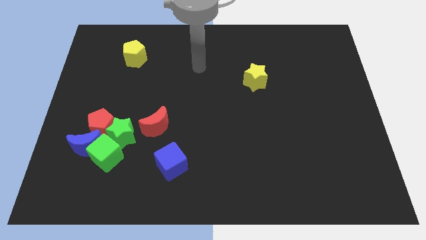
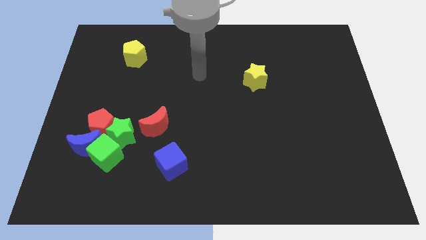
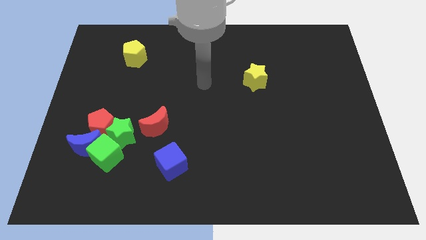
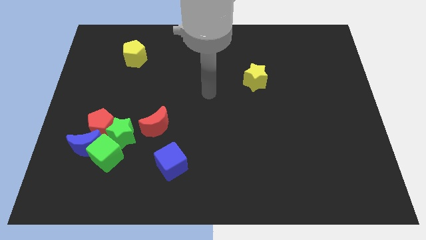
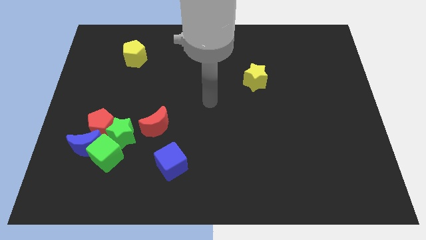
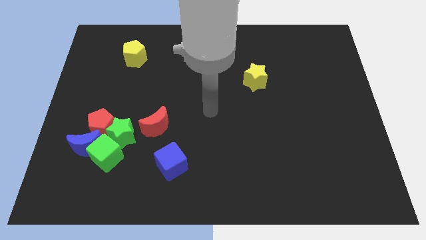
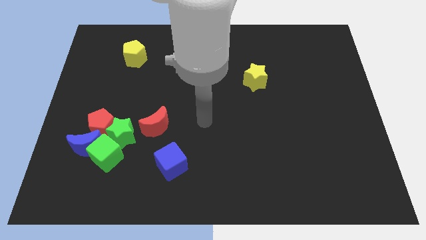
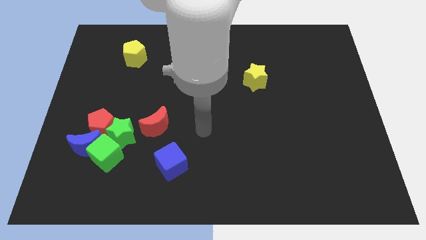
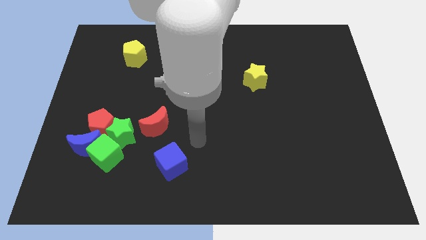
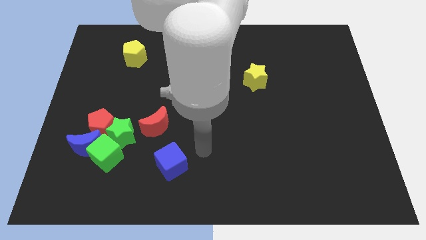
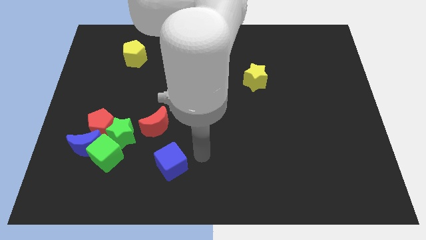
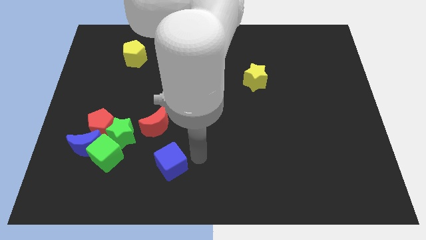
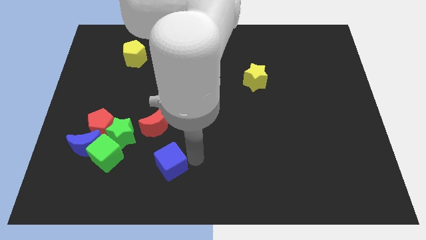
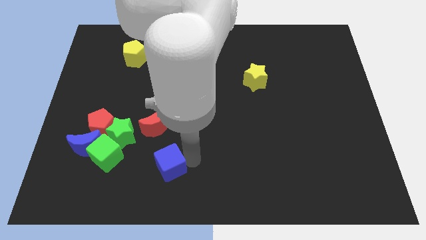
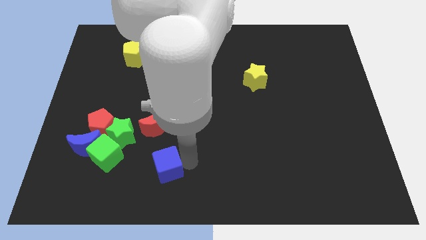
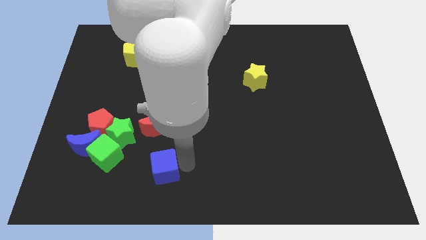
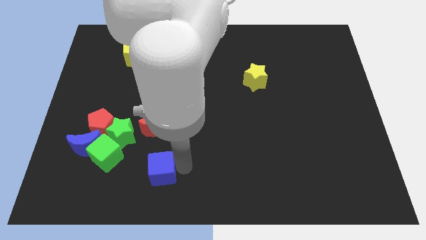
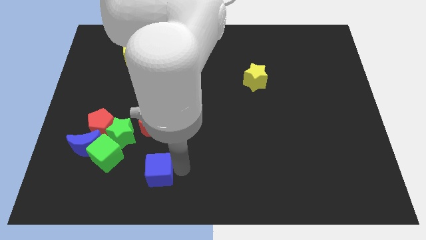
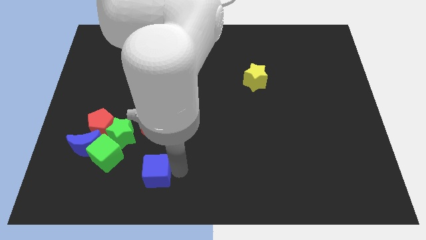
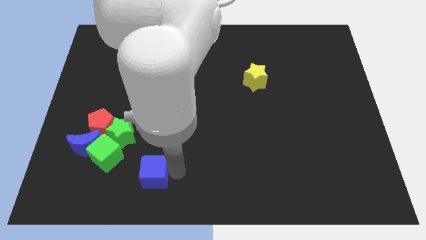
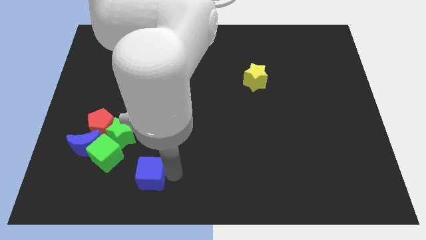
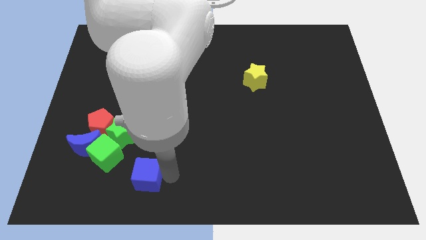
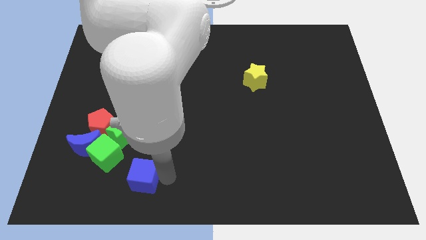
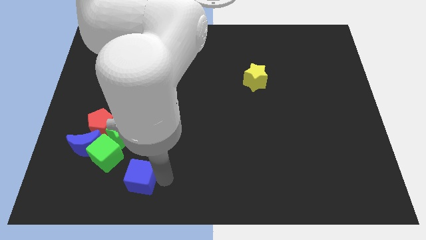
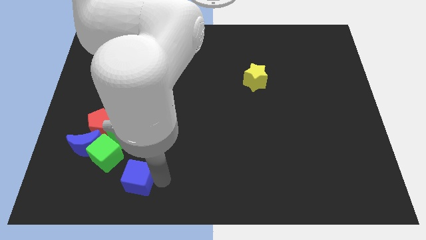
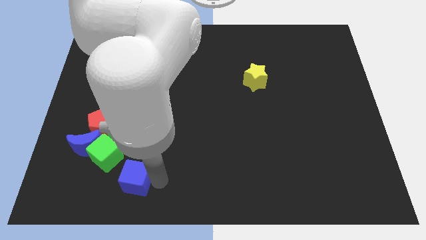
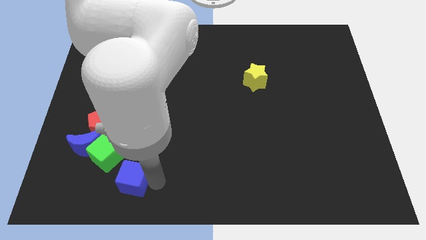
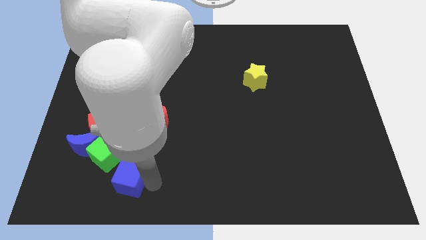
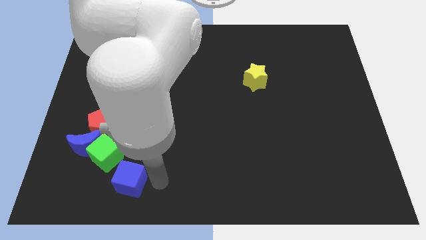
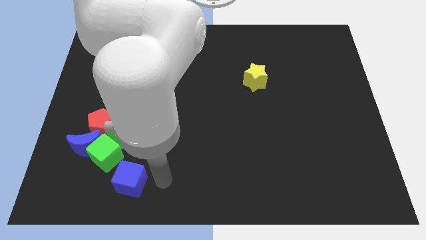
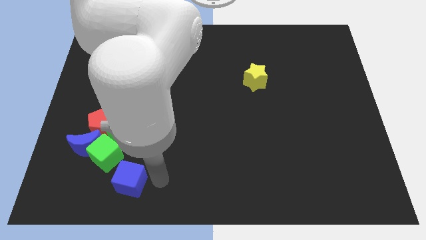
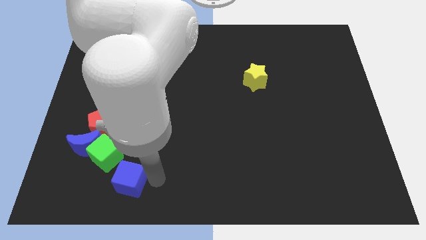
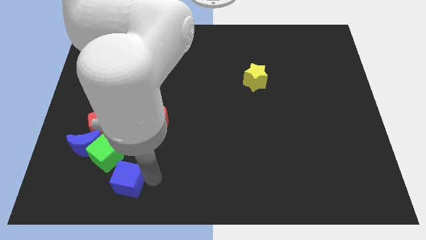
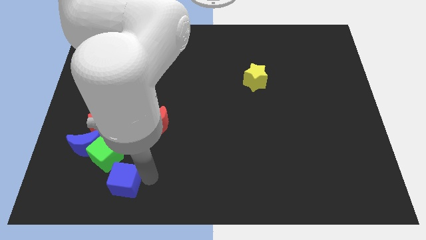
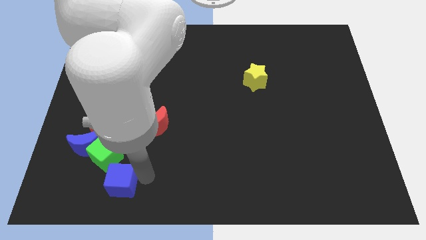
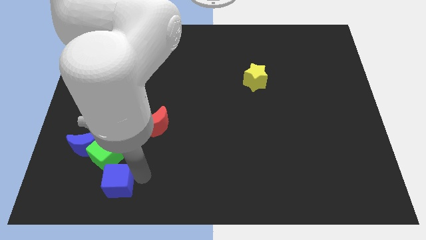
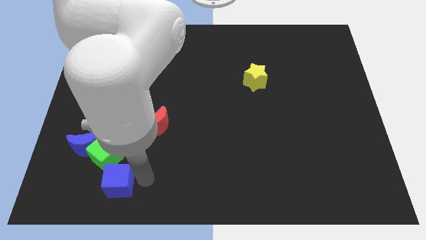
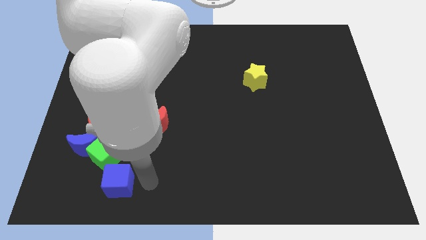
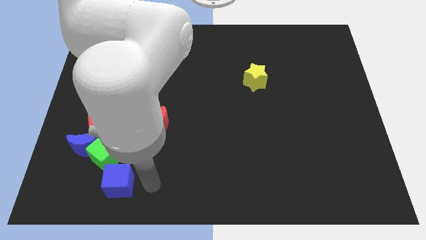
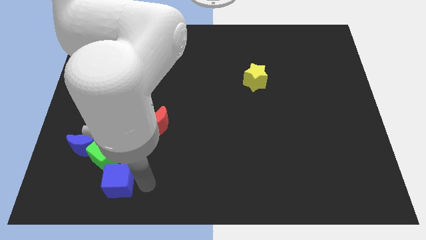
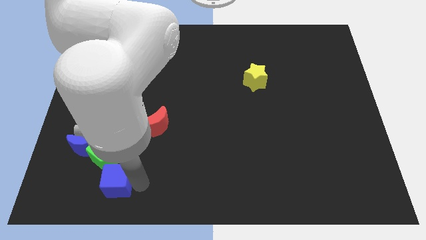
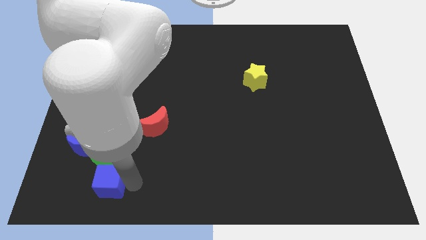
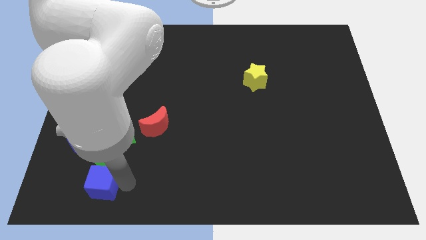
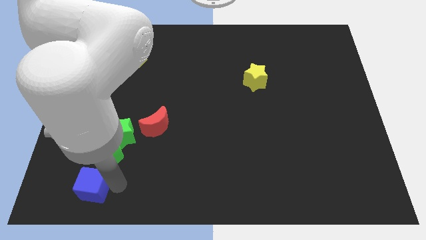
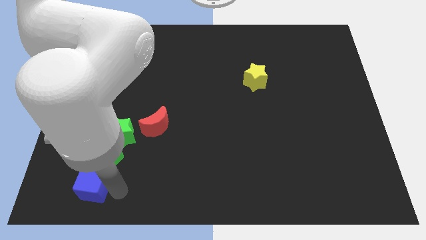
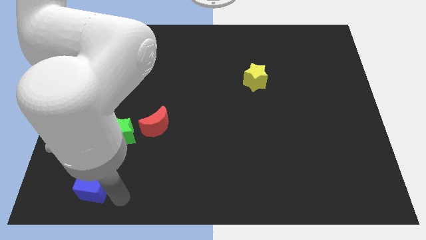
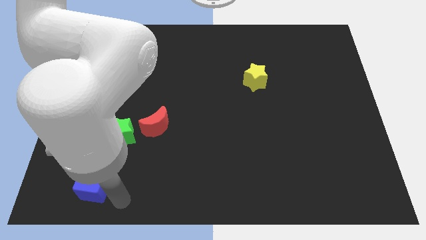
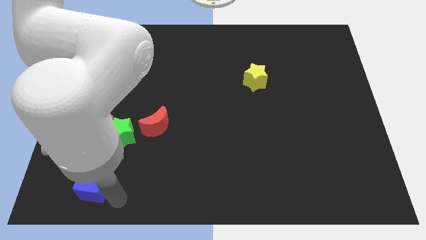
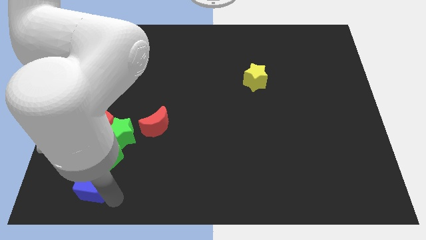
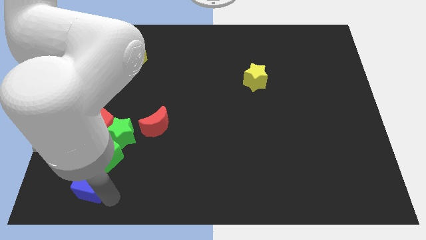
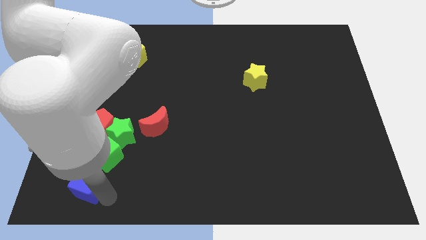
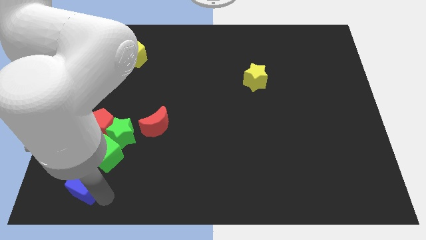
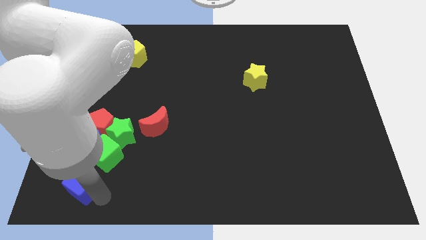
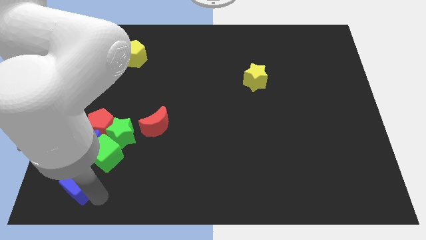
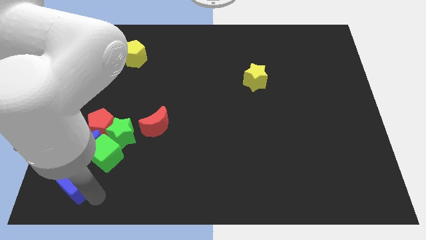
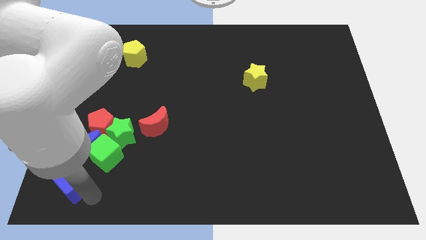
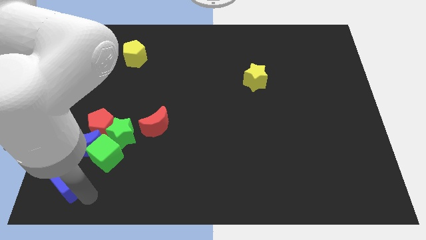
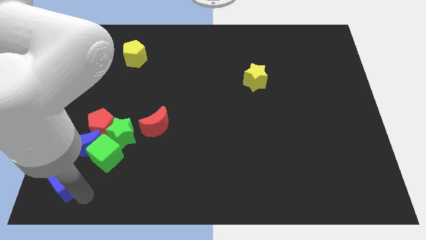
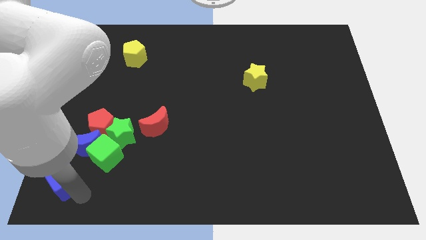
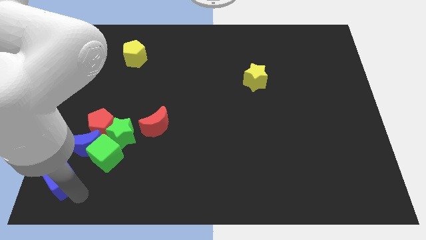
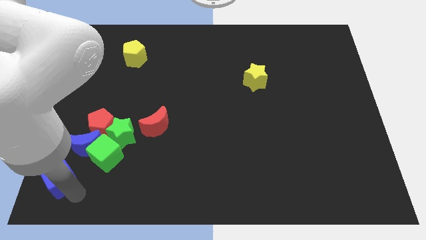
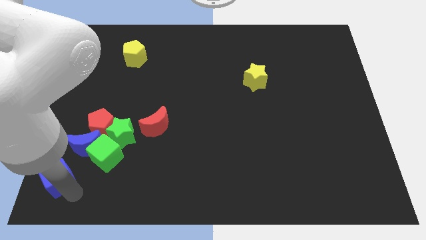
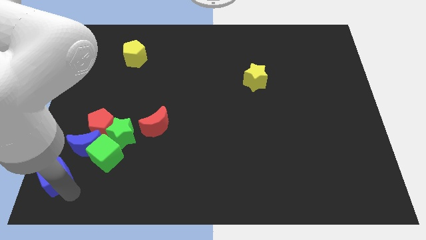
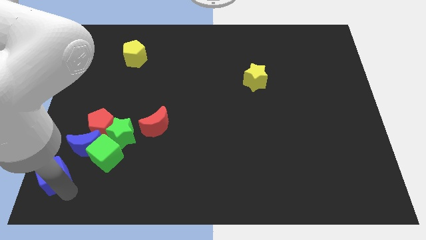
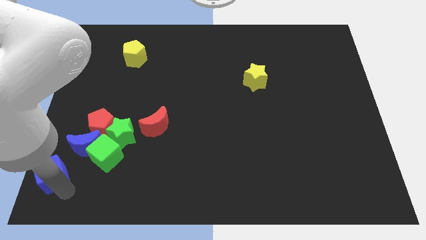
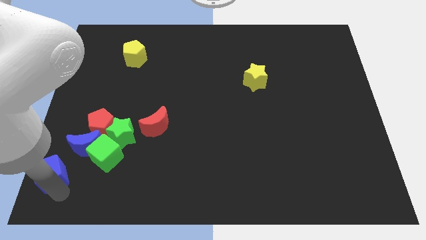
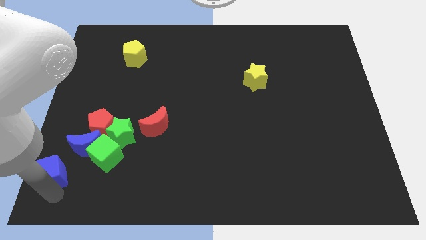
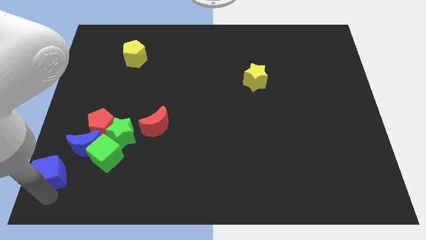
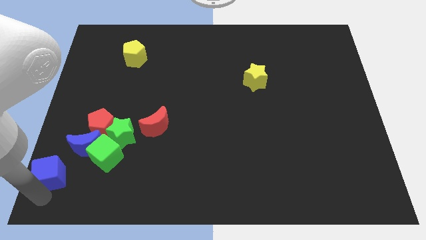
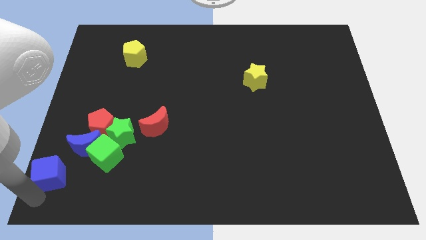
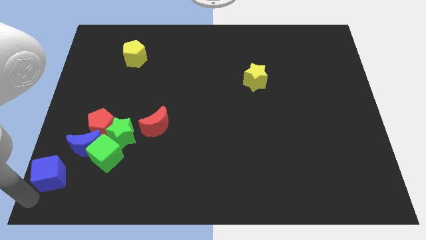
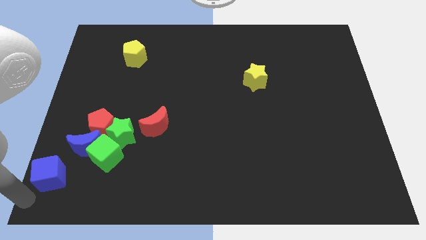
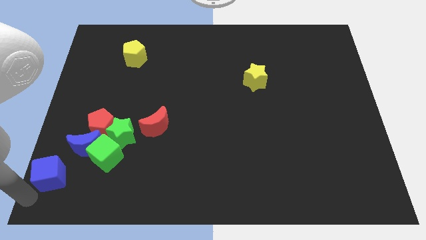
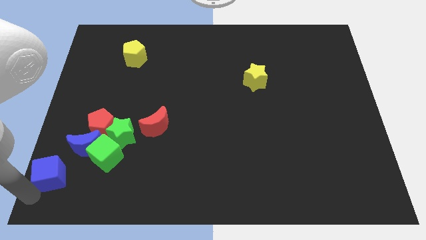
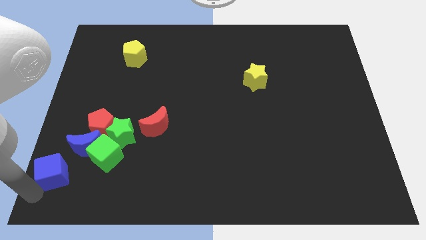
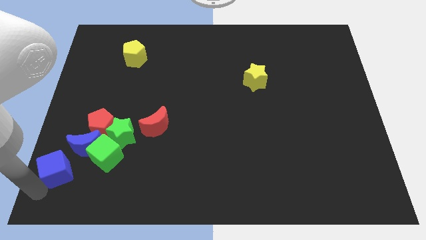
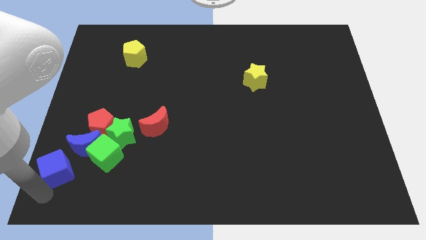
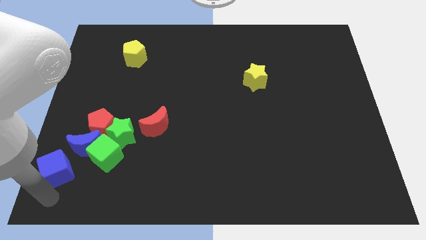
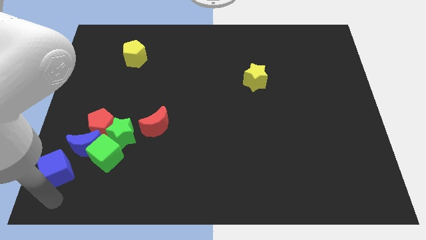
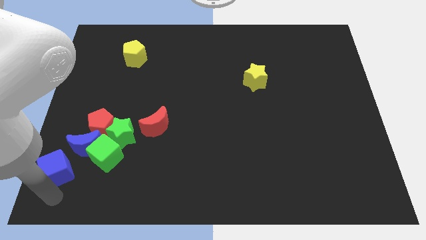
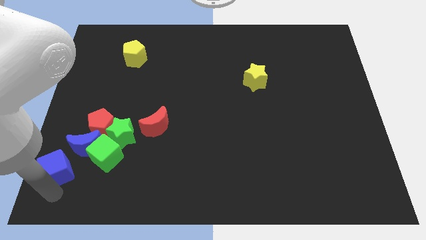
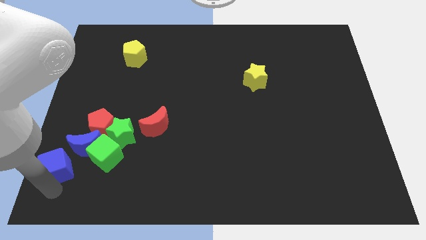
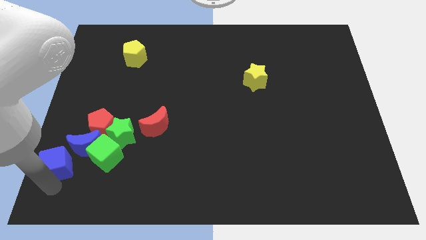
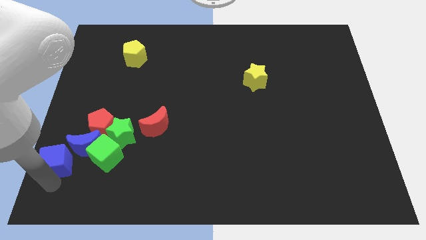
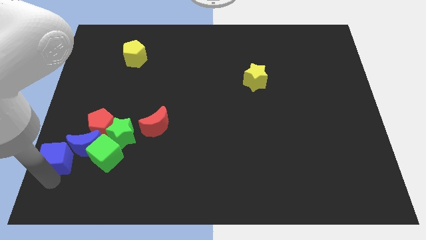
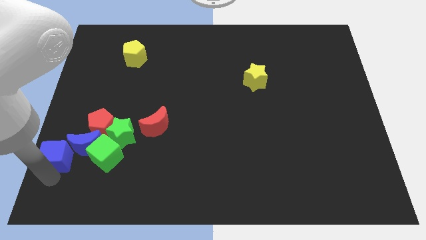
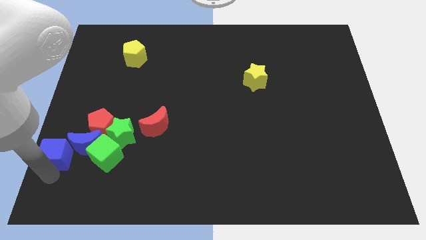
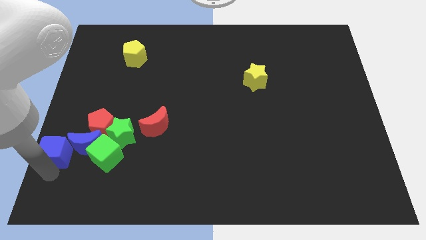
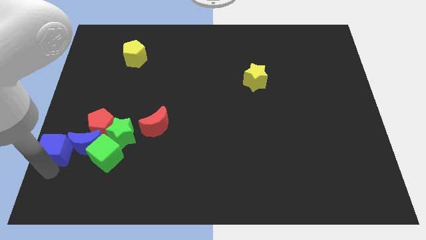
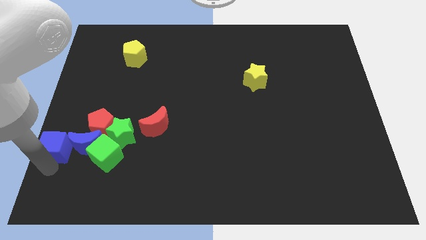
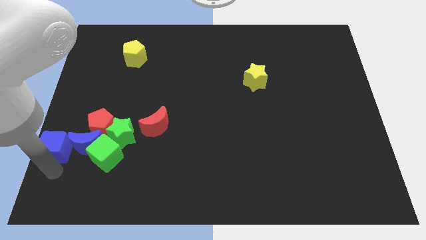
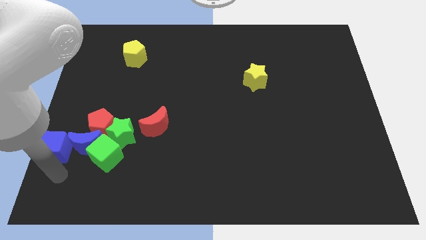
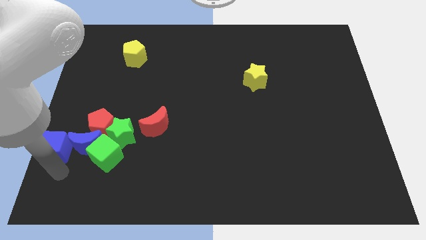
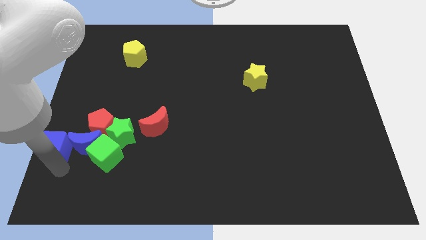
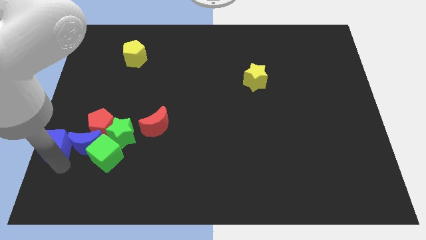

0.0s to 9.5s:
put the blue cube to the left side
